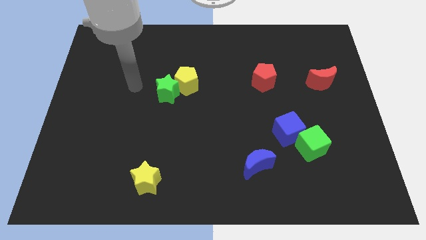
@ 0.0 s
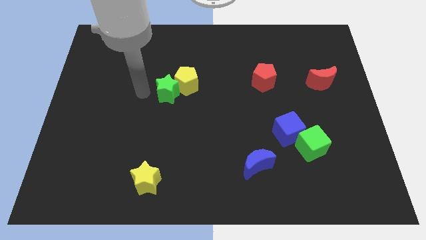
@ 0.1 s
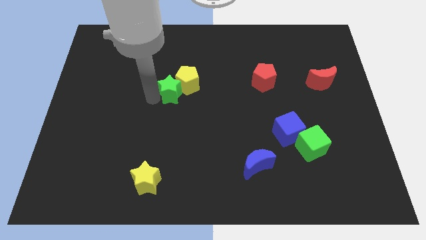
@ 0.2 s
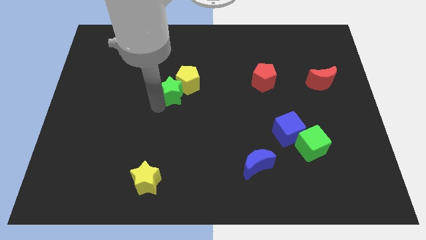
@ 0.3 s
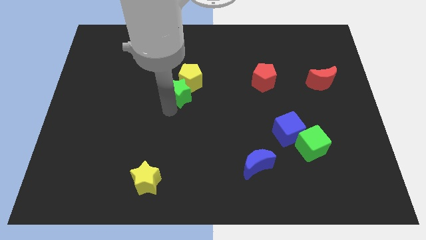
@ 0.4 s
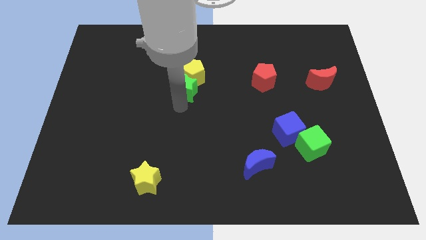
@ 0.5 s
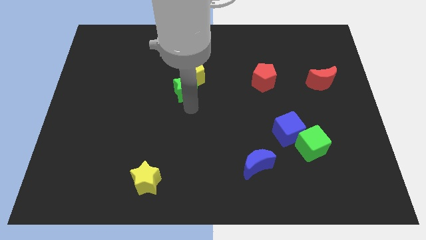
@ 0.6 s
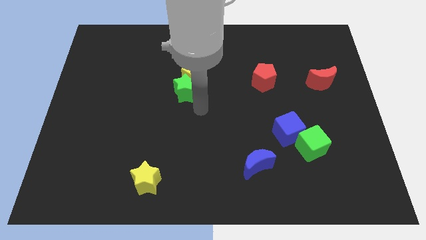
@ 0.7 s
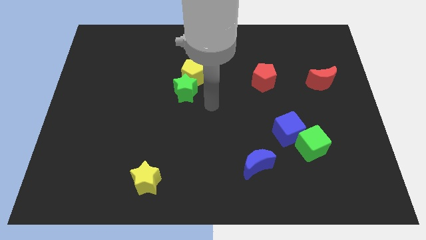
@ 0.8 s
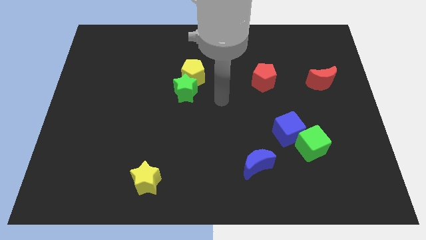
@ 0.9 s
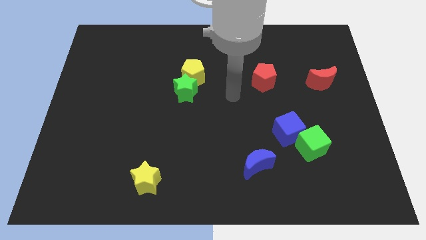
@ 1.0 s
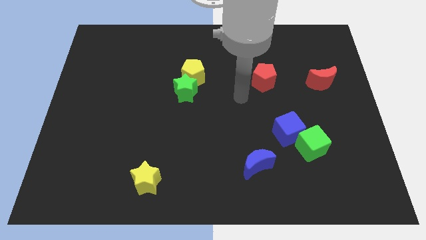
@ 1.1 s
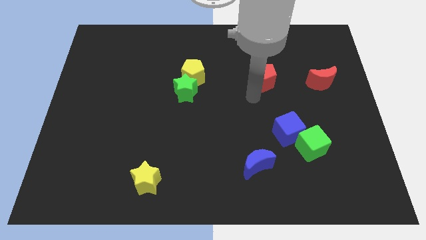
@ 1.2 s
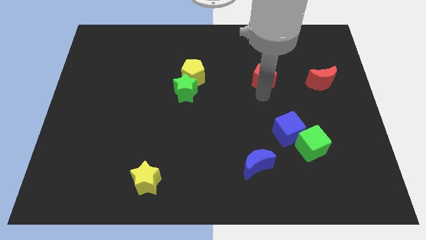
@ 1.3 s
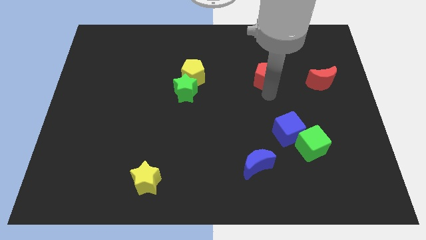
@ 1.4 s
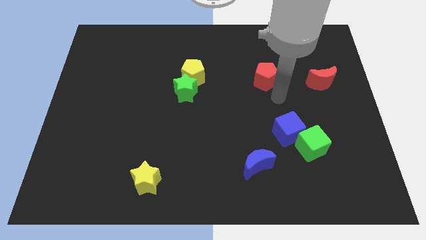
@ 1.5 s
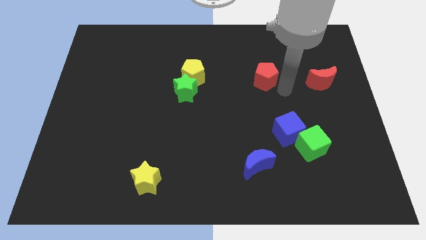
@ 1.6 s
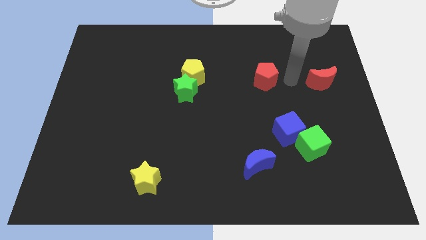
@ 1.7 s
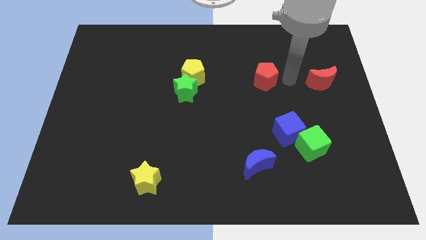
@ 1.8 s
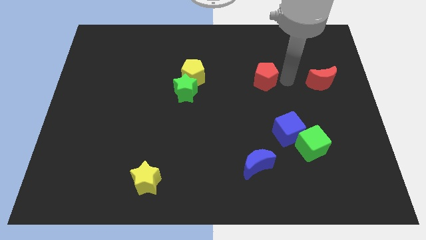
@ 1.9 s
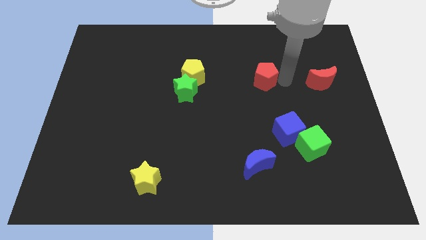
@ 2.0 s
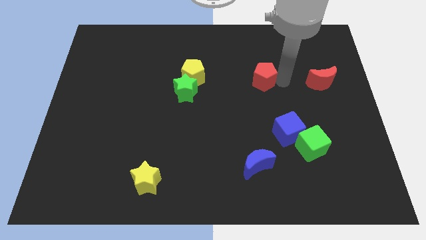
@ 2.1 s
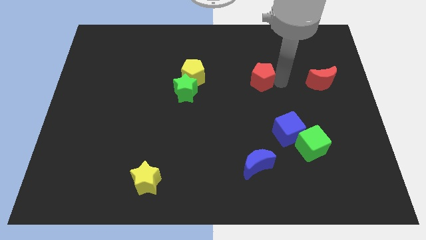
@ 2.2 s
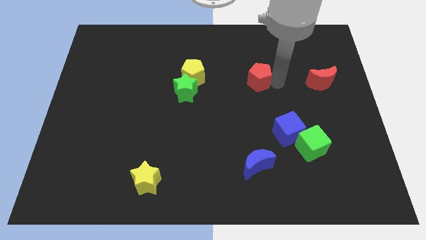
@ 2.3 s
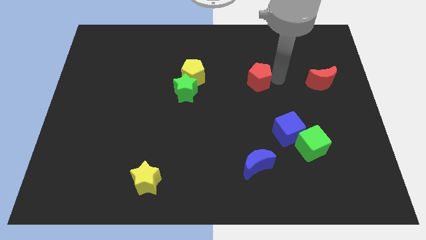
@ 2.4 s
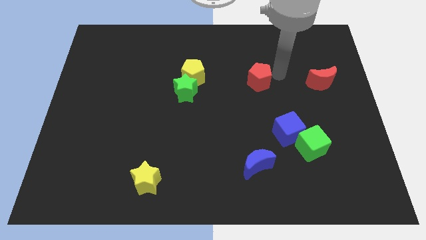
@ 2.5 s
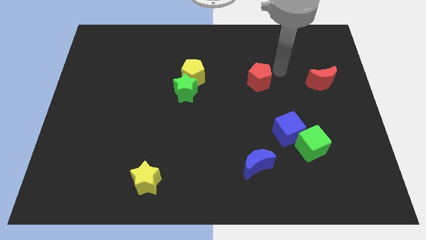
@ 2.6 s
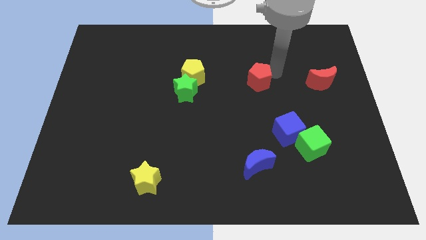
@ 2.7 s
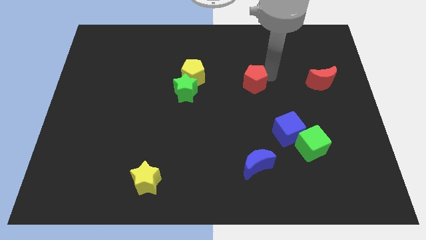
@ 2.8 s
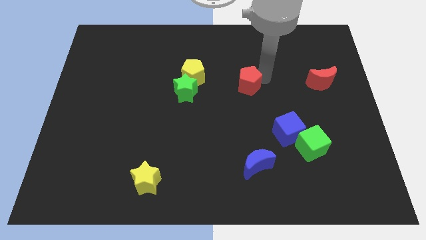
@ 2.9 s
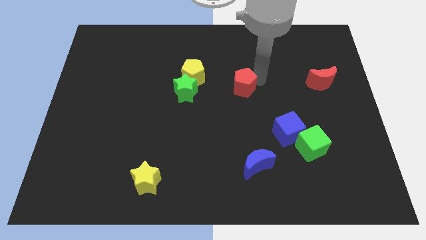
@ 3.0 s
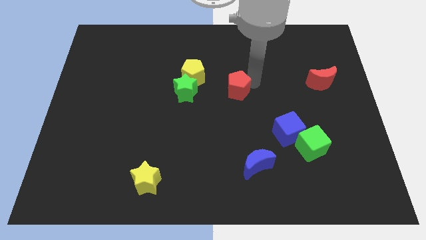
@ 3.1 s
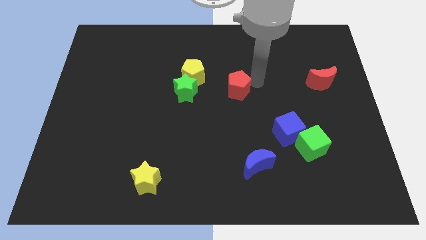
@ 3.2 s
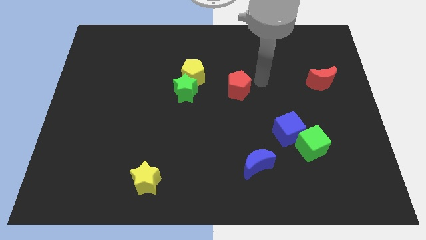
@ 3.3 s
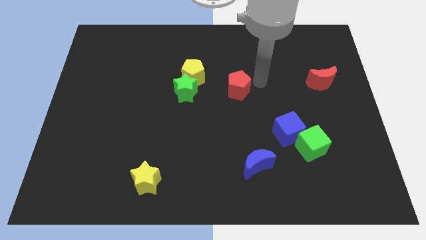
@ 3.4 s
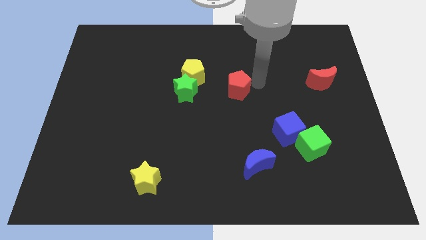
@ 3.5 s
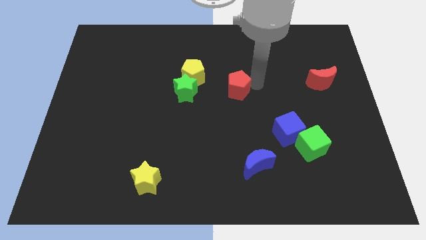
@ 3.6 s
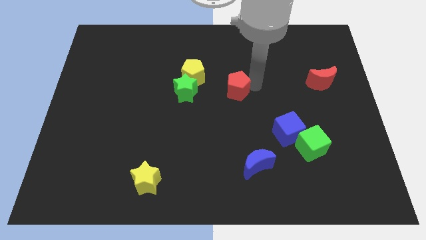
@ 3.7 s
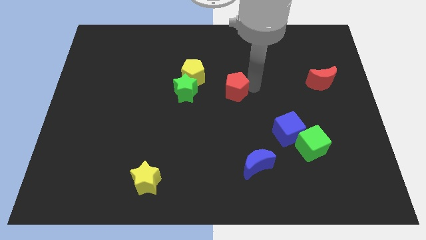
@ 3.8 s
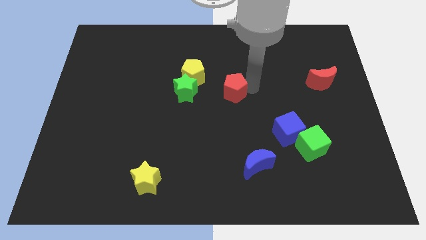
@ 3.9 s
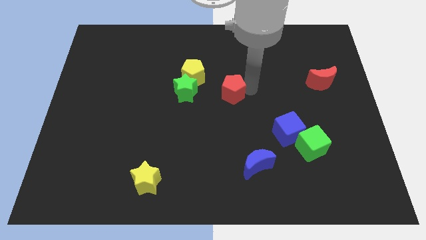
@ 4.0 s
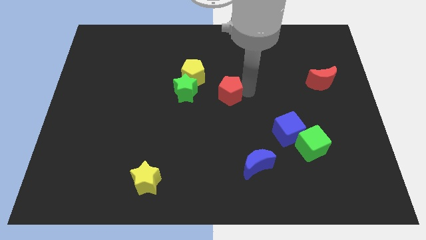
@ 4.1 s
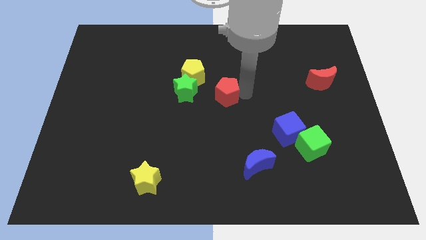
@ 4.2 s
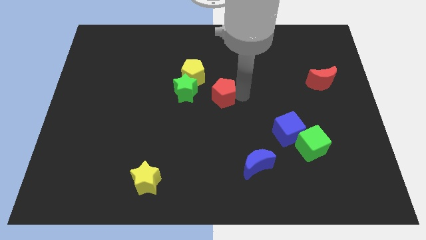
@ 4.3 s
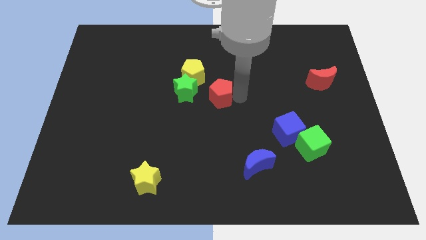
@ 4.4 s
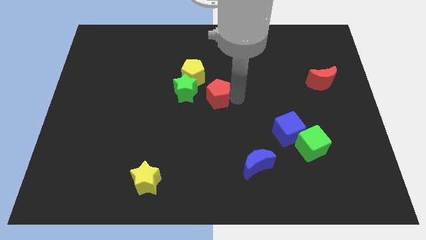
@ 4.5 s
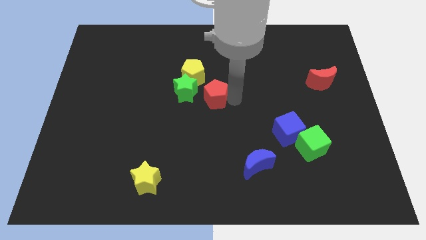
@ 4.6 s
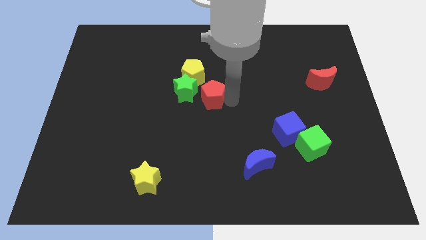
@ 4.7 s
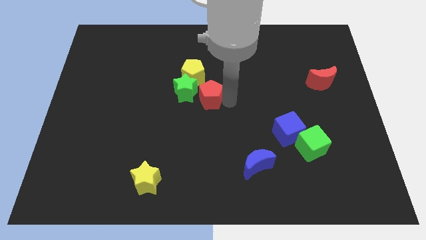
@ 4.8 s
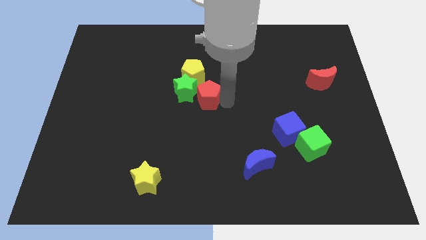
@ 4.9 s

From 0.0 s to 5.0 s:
put the red pentagon to the green star

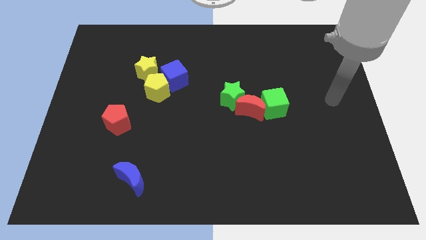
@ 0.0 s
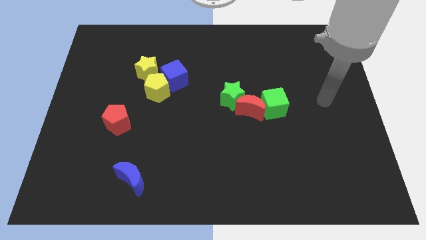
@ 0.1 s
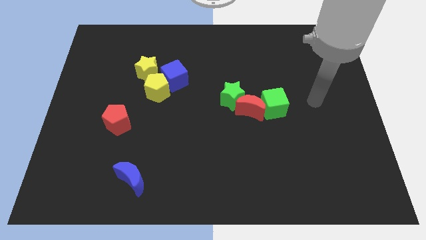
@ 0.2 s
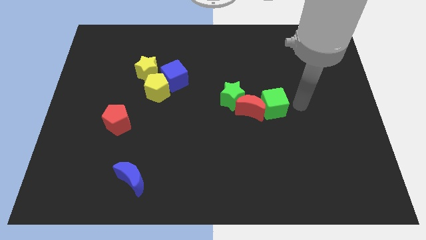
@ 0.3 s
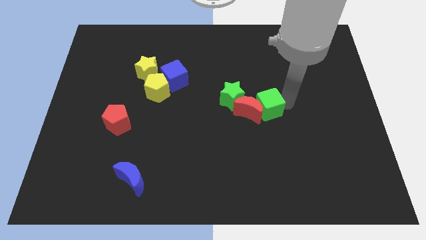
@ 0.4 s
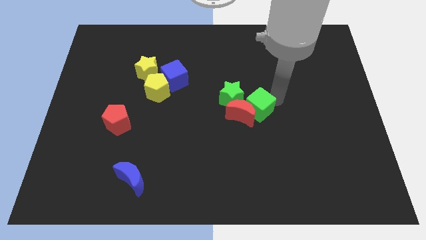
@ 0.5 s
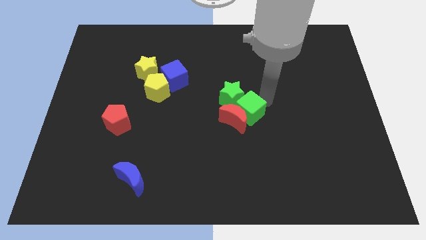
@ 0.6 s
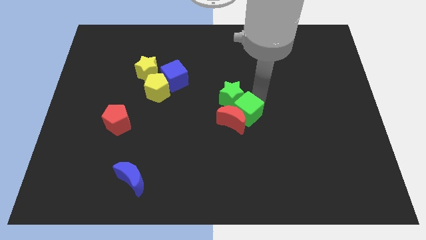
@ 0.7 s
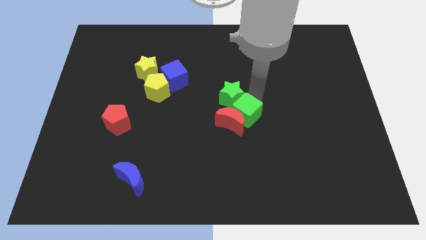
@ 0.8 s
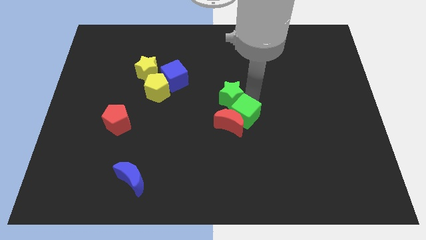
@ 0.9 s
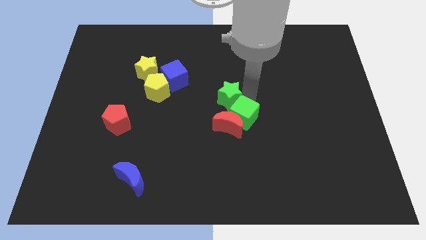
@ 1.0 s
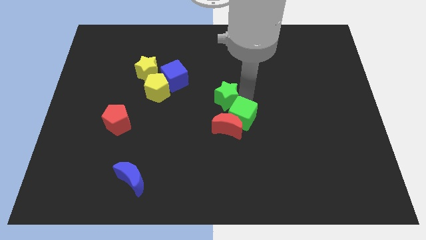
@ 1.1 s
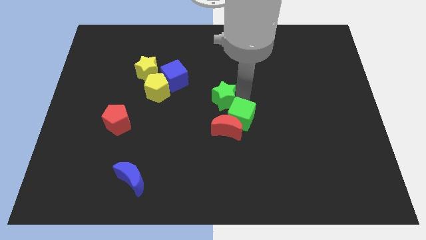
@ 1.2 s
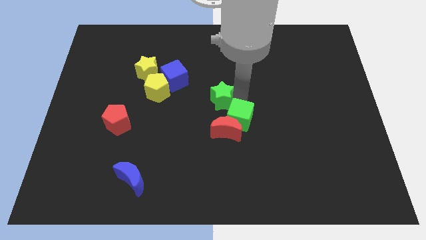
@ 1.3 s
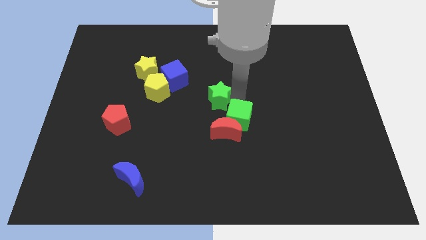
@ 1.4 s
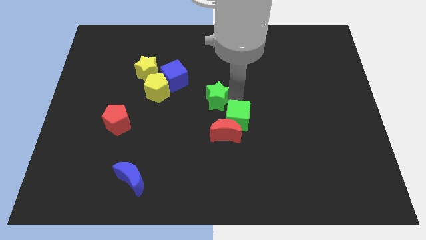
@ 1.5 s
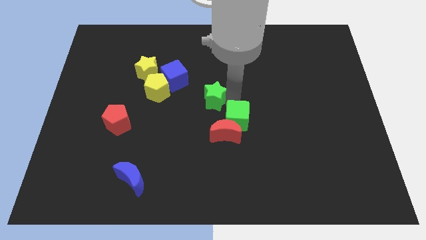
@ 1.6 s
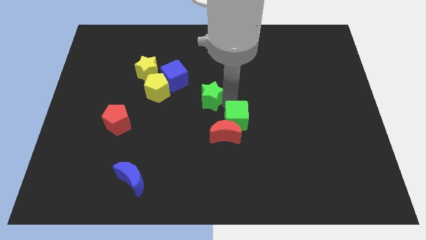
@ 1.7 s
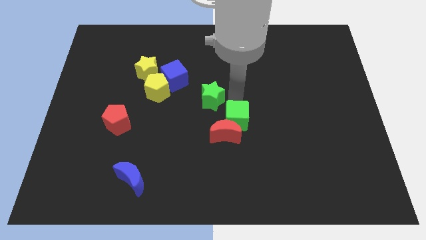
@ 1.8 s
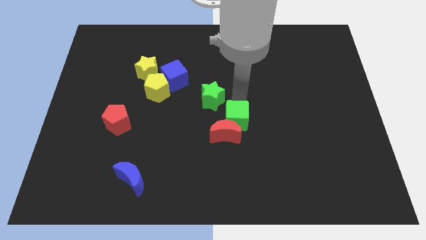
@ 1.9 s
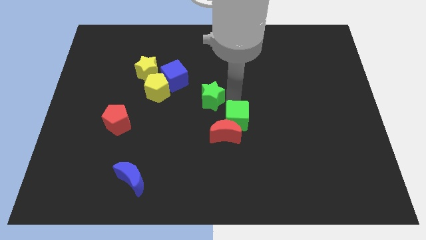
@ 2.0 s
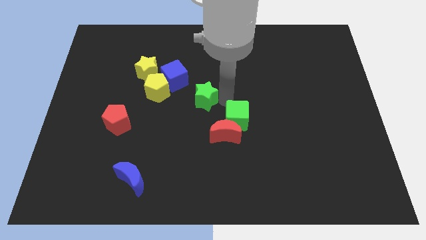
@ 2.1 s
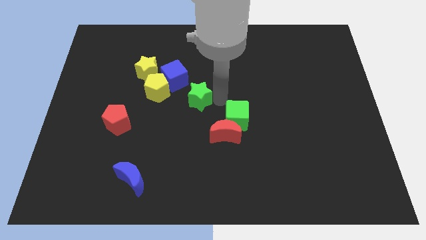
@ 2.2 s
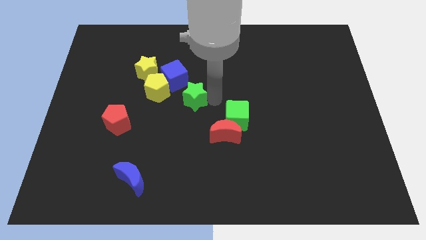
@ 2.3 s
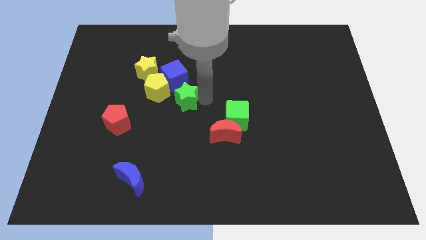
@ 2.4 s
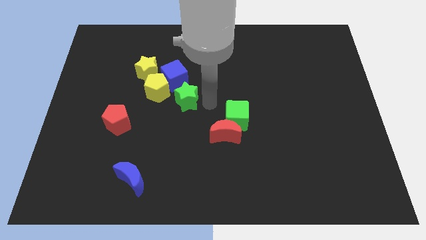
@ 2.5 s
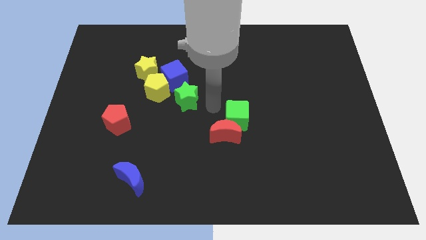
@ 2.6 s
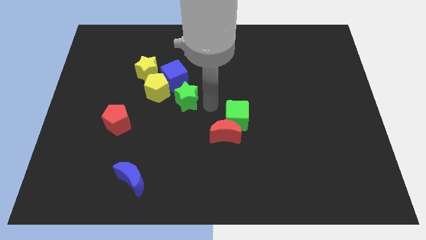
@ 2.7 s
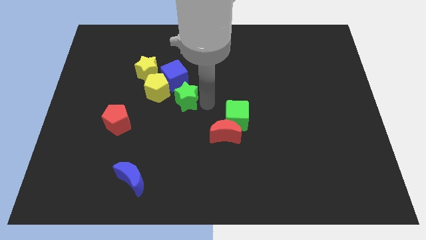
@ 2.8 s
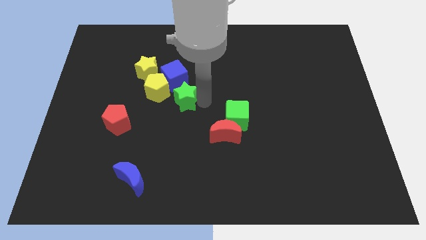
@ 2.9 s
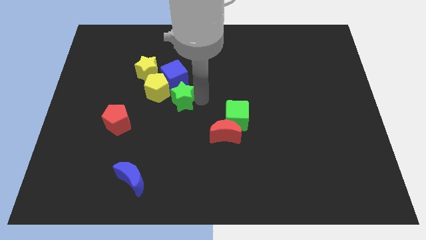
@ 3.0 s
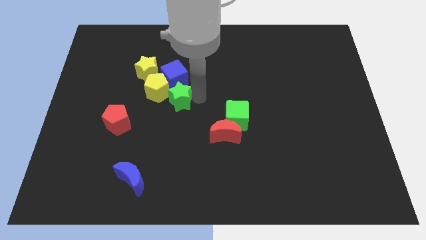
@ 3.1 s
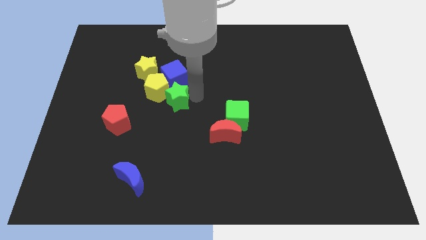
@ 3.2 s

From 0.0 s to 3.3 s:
put the green star towards the yellow pentagon
